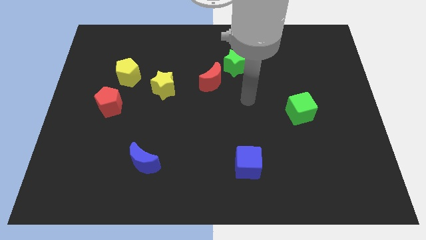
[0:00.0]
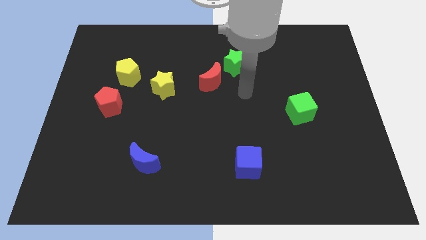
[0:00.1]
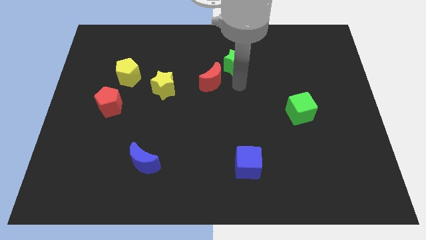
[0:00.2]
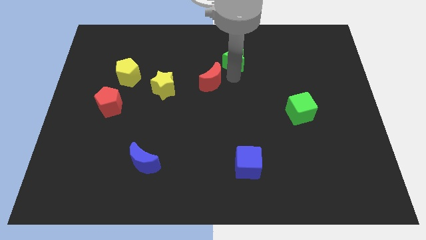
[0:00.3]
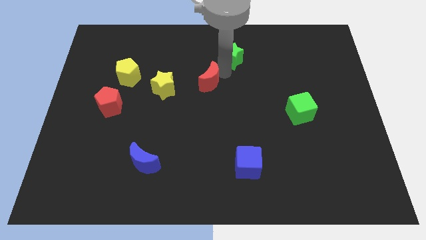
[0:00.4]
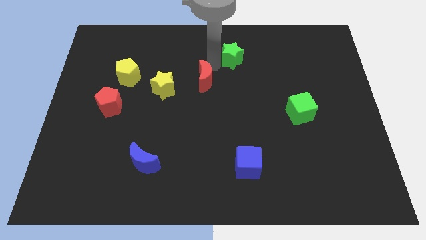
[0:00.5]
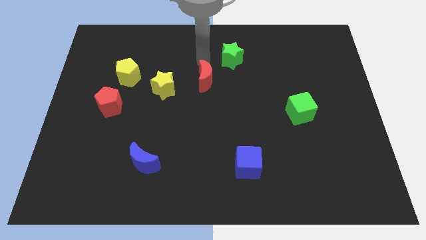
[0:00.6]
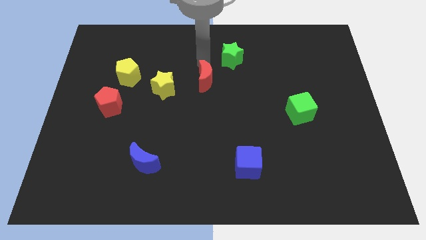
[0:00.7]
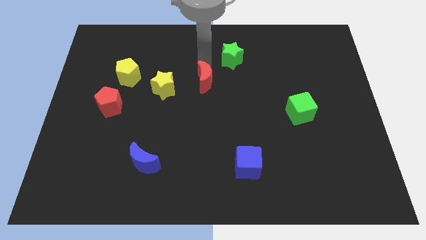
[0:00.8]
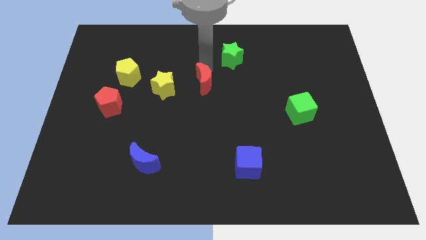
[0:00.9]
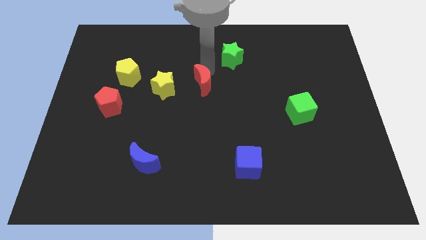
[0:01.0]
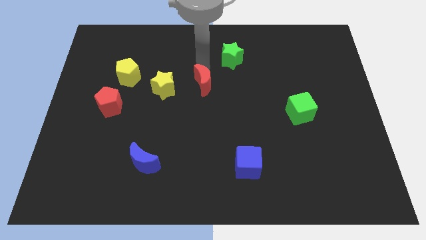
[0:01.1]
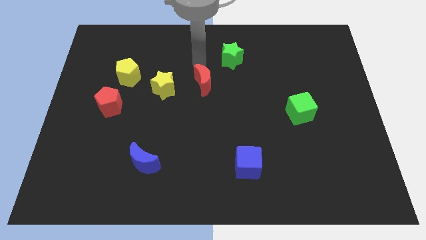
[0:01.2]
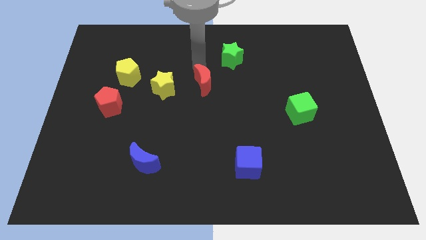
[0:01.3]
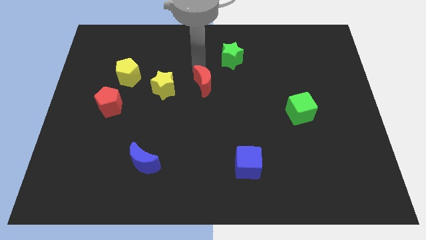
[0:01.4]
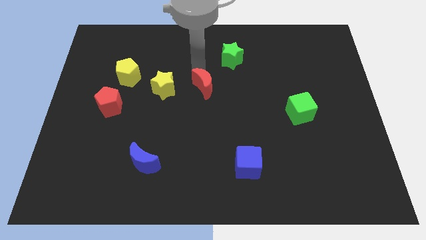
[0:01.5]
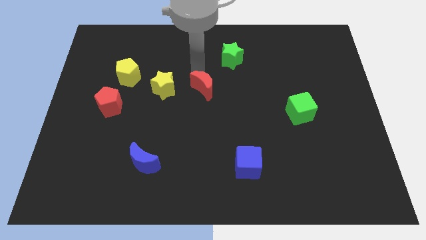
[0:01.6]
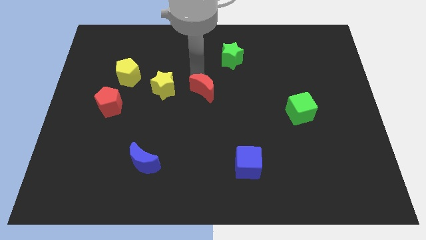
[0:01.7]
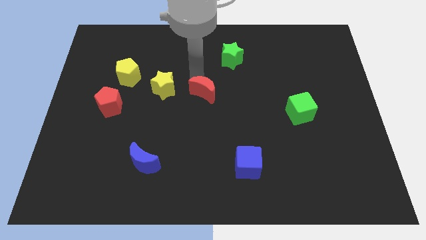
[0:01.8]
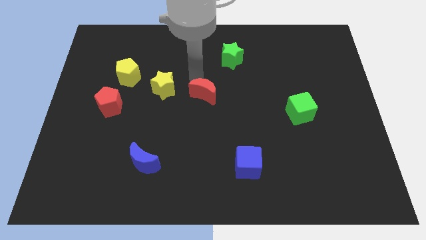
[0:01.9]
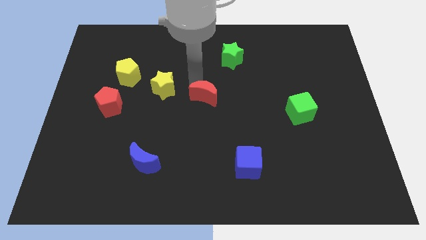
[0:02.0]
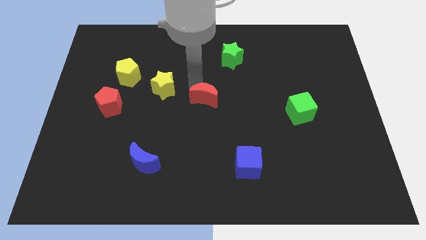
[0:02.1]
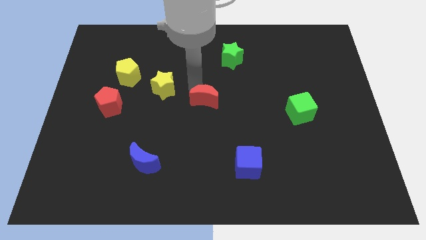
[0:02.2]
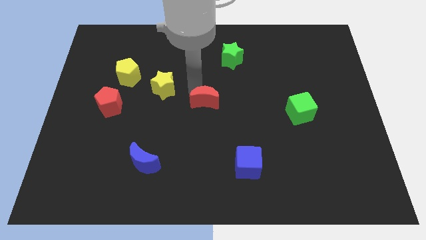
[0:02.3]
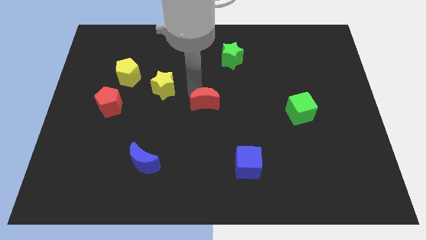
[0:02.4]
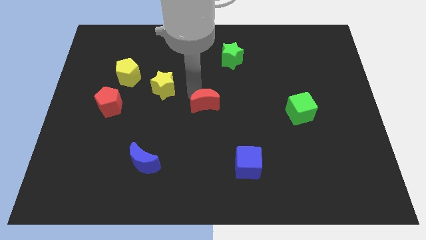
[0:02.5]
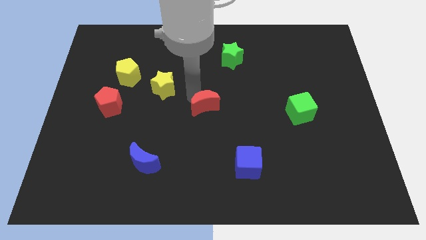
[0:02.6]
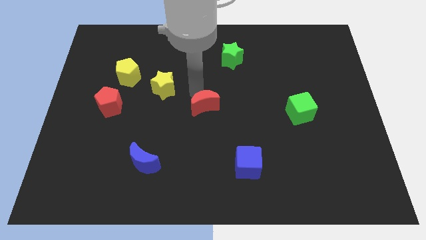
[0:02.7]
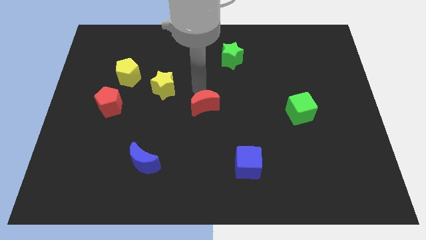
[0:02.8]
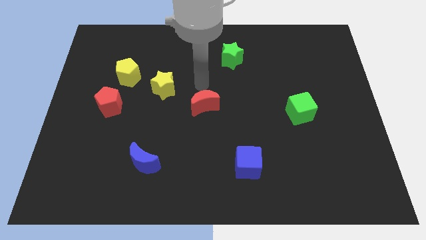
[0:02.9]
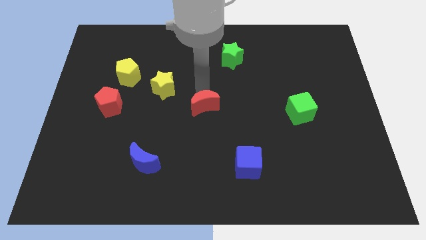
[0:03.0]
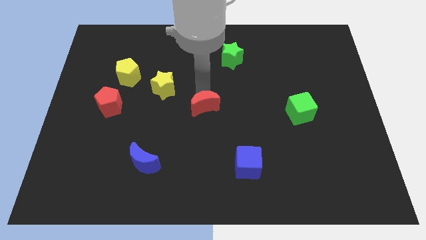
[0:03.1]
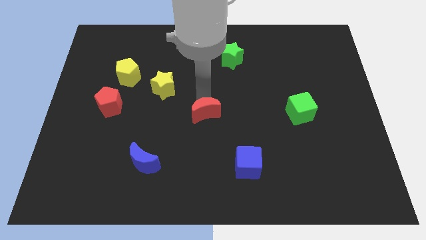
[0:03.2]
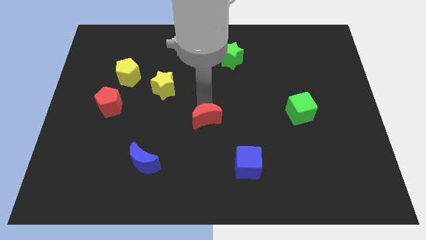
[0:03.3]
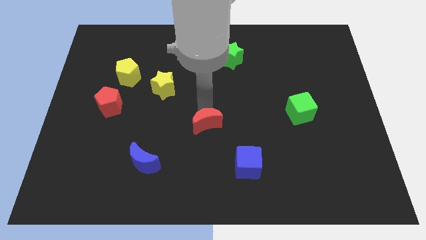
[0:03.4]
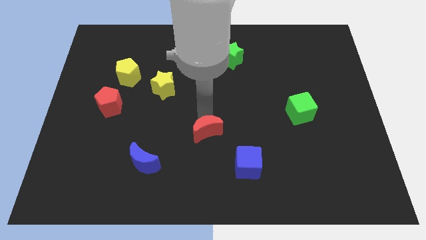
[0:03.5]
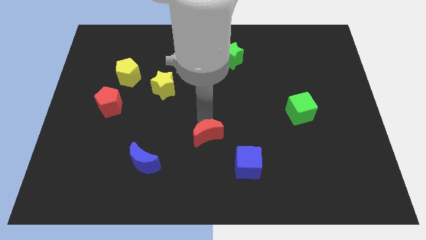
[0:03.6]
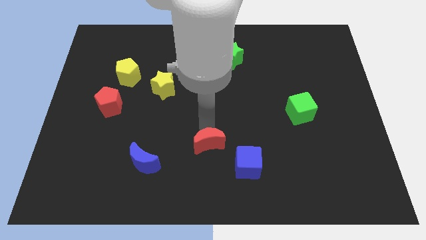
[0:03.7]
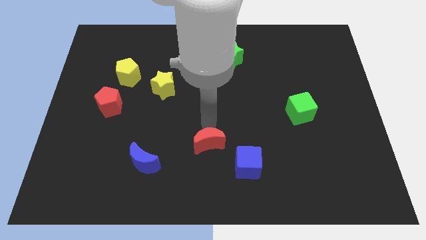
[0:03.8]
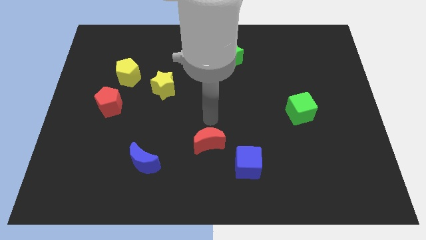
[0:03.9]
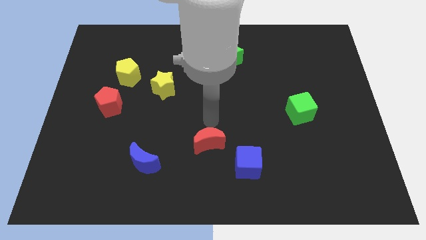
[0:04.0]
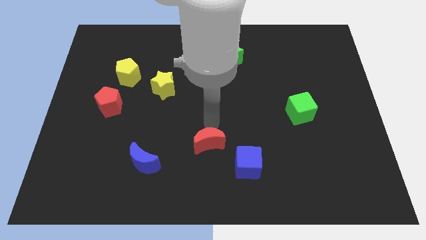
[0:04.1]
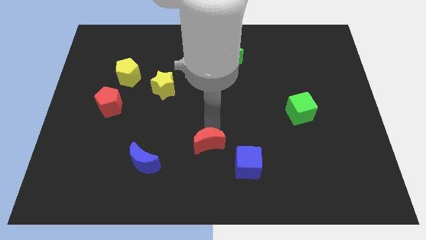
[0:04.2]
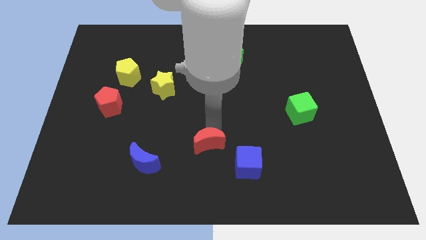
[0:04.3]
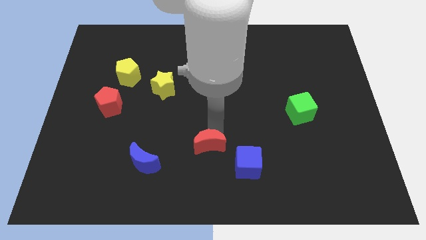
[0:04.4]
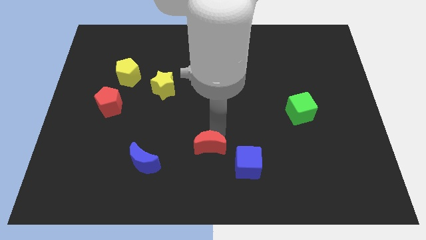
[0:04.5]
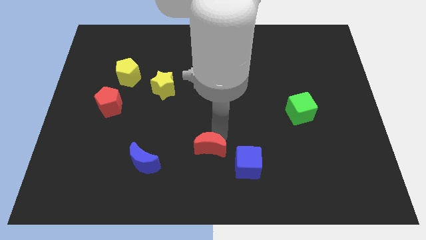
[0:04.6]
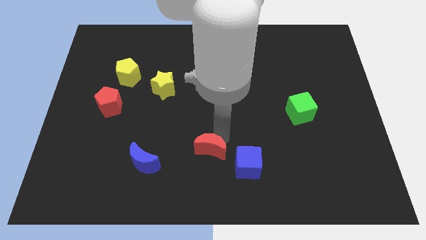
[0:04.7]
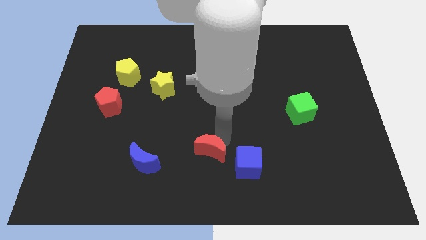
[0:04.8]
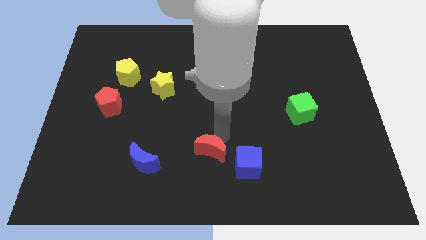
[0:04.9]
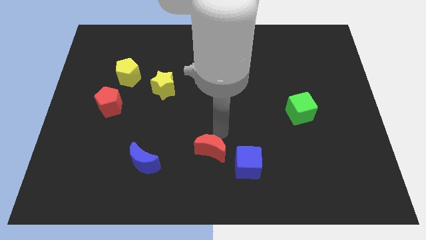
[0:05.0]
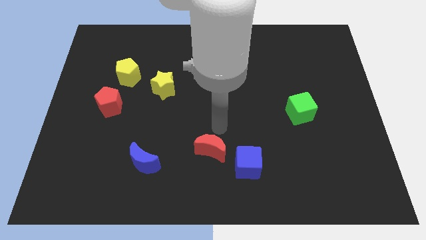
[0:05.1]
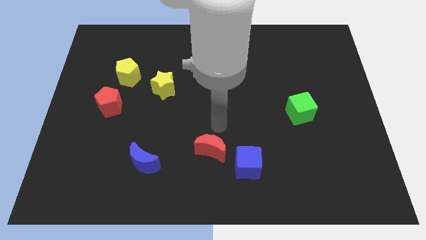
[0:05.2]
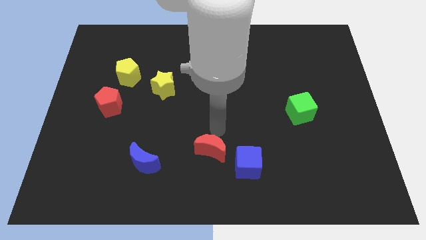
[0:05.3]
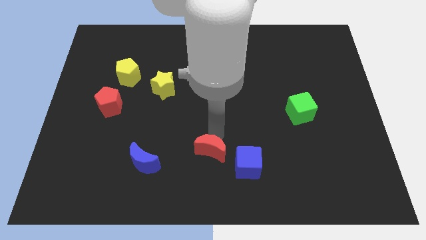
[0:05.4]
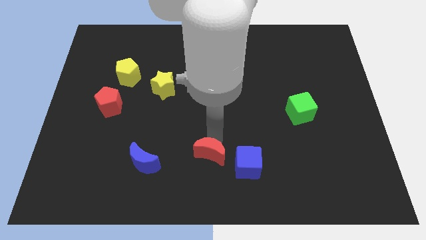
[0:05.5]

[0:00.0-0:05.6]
slide the red moon to the bottom

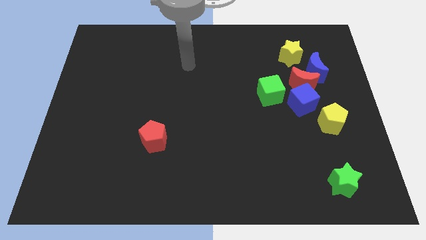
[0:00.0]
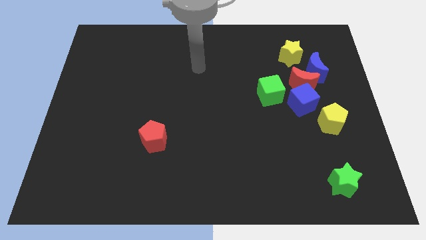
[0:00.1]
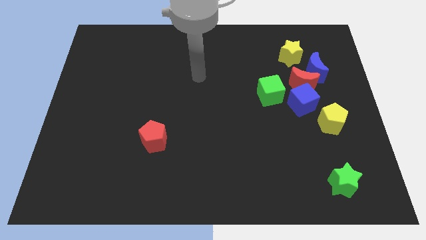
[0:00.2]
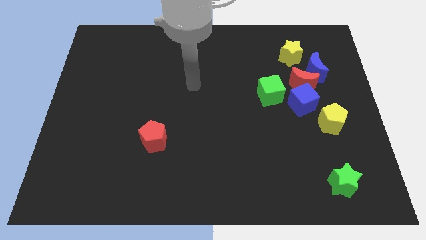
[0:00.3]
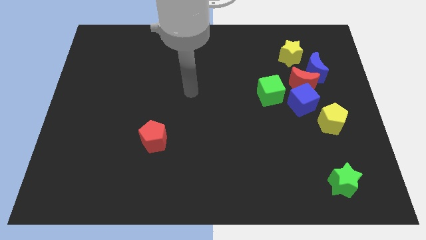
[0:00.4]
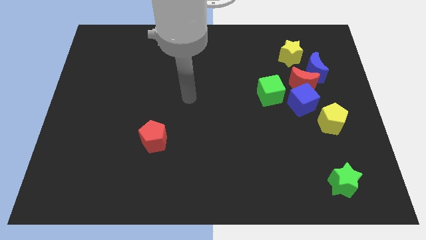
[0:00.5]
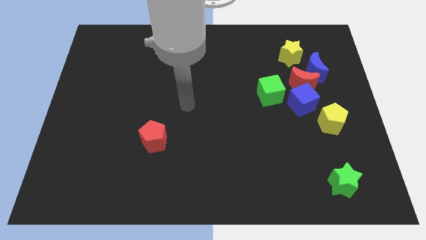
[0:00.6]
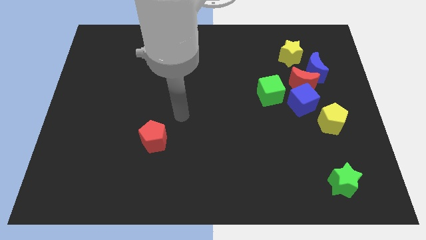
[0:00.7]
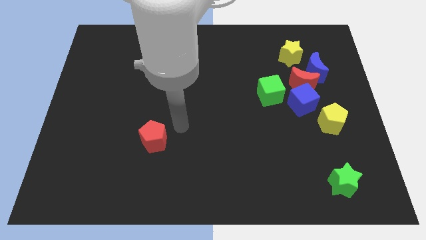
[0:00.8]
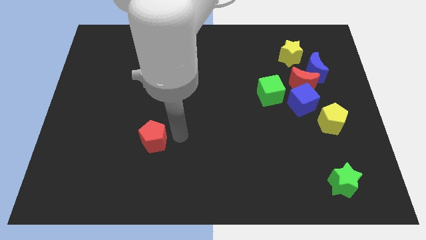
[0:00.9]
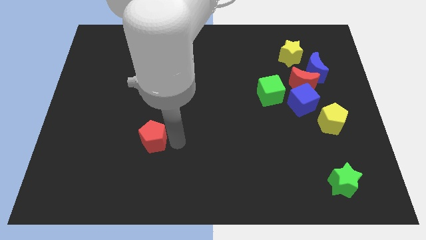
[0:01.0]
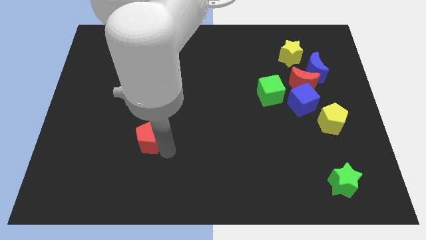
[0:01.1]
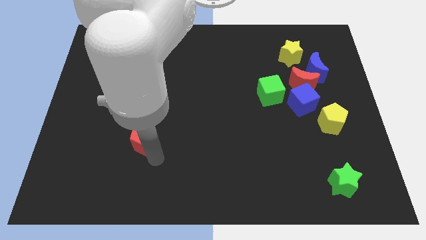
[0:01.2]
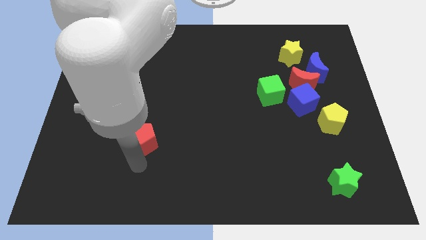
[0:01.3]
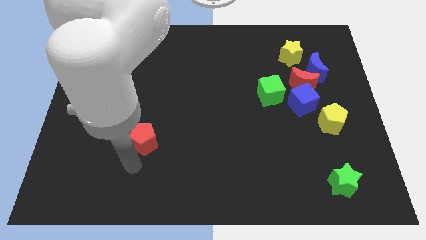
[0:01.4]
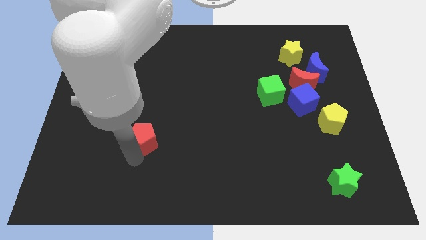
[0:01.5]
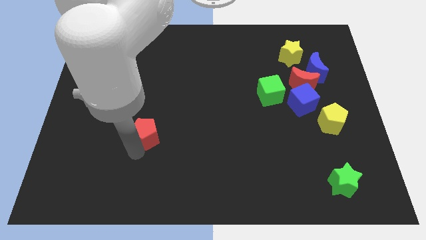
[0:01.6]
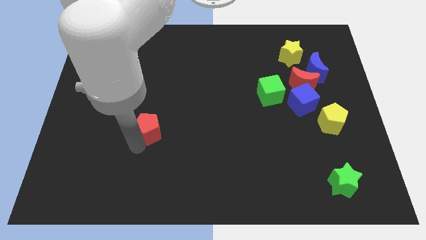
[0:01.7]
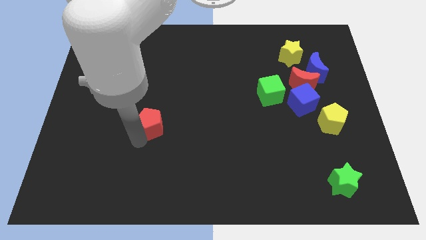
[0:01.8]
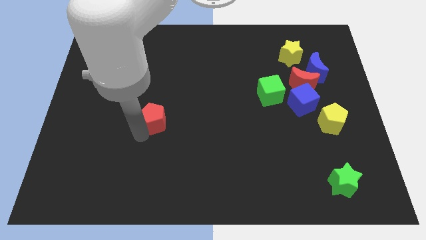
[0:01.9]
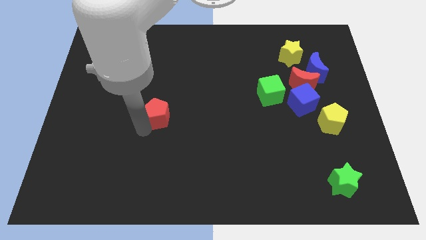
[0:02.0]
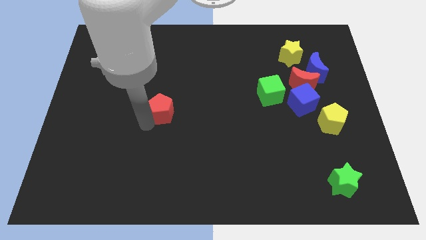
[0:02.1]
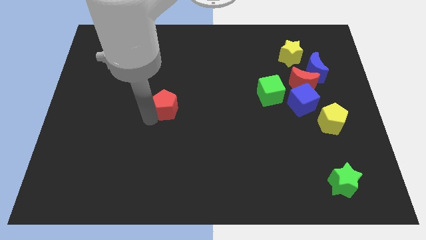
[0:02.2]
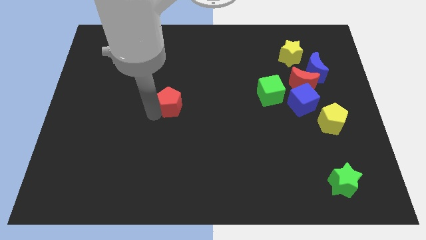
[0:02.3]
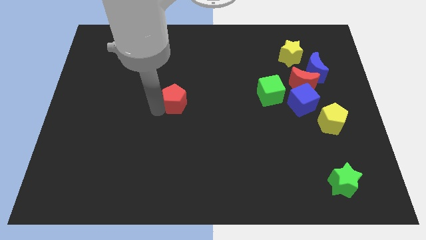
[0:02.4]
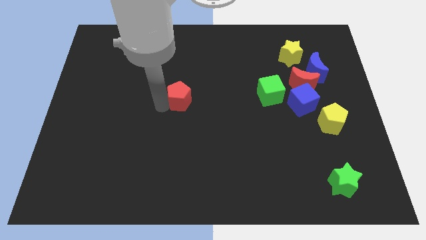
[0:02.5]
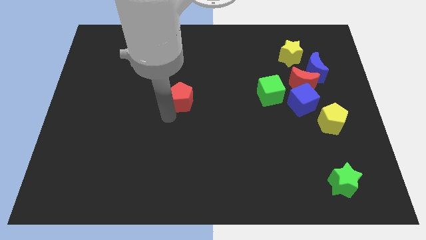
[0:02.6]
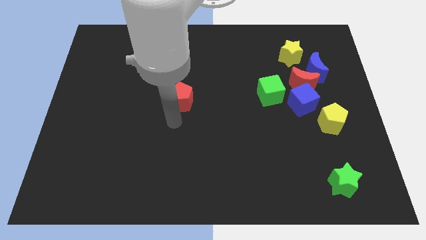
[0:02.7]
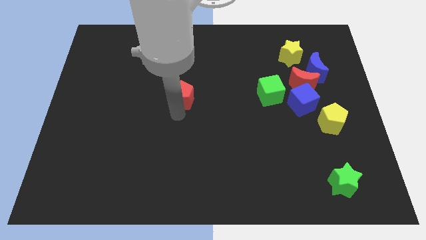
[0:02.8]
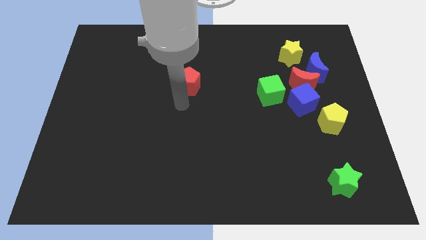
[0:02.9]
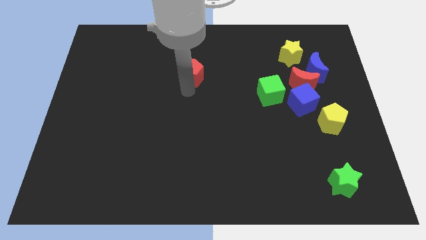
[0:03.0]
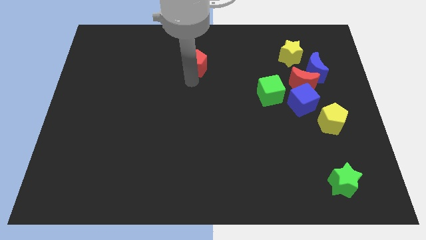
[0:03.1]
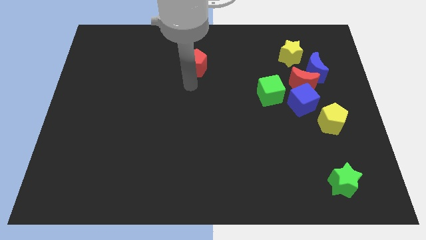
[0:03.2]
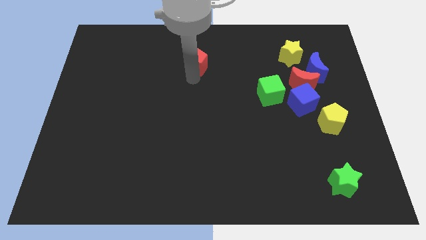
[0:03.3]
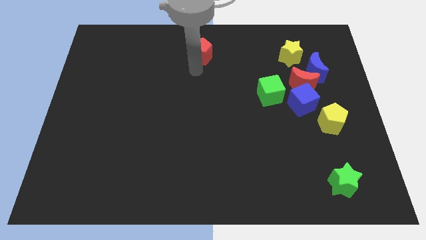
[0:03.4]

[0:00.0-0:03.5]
put the red pentagon to the top
